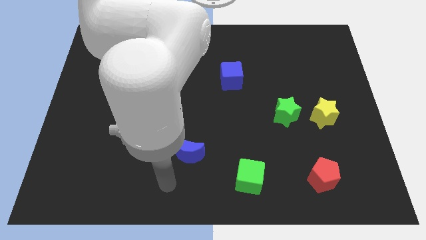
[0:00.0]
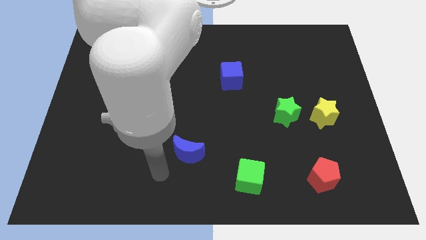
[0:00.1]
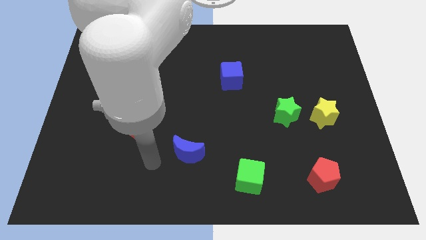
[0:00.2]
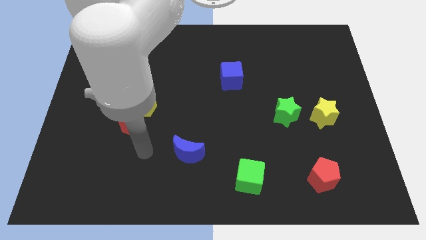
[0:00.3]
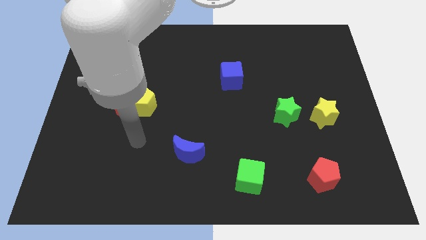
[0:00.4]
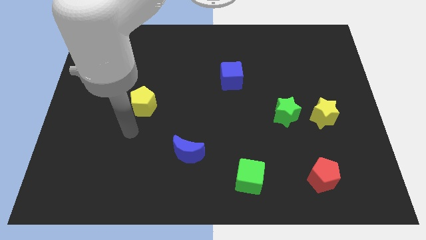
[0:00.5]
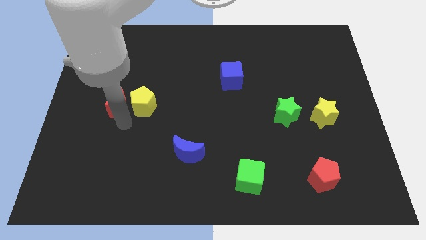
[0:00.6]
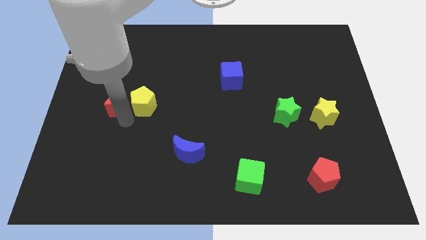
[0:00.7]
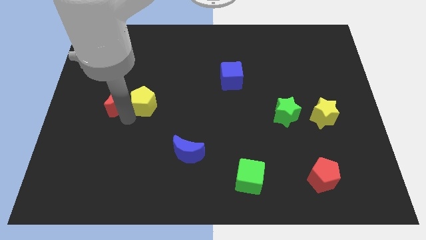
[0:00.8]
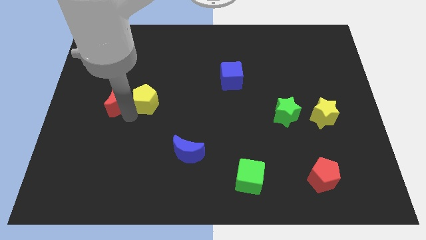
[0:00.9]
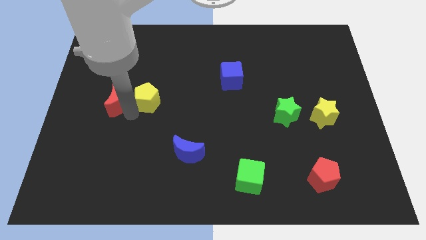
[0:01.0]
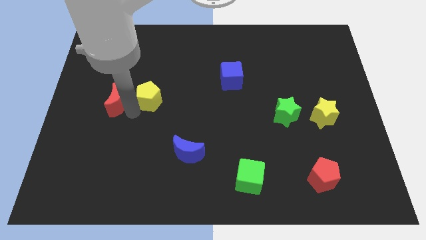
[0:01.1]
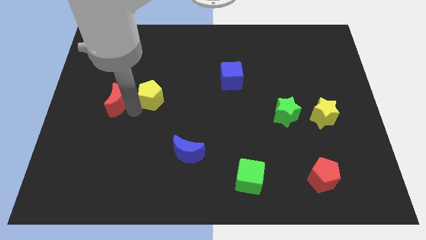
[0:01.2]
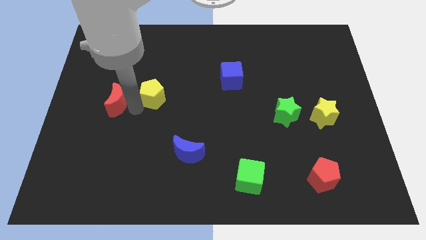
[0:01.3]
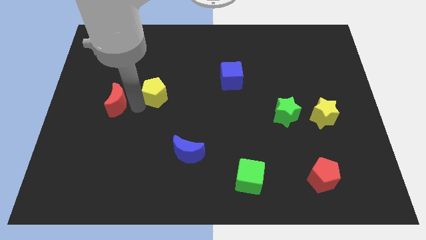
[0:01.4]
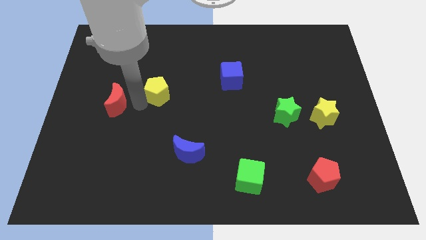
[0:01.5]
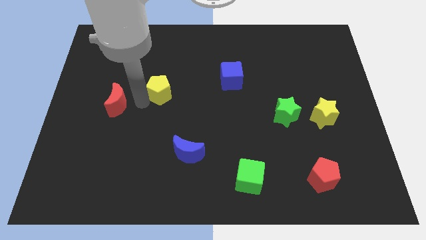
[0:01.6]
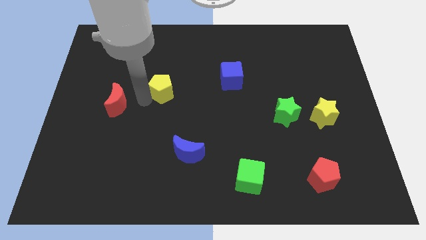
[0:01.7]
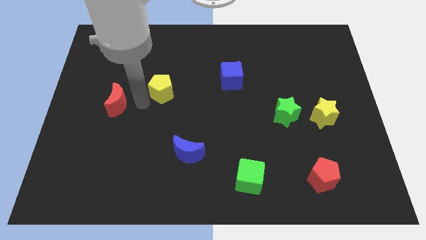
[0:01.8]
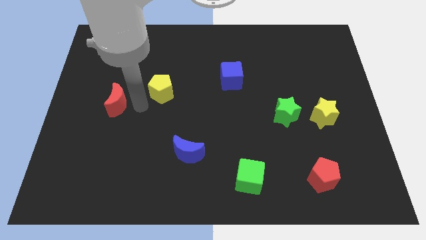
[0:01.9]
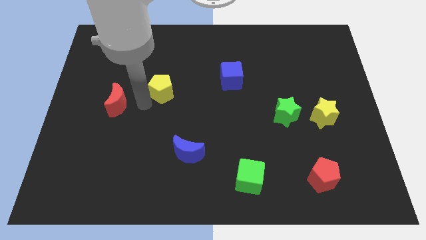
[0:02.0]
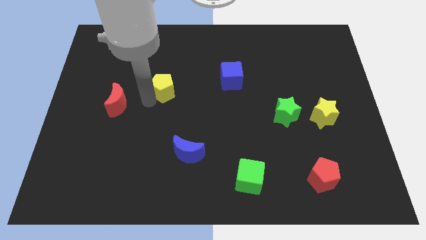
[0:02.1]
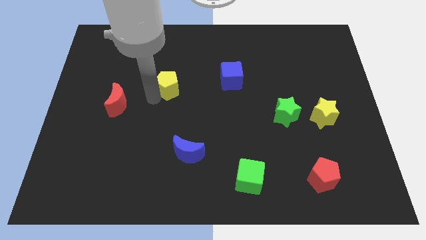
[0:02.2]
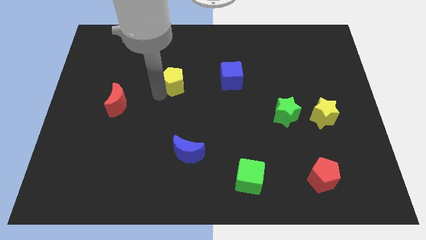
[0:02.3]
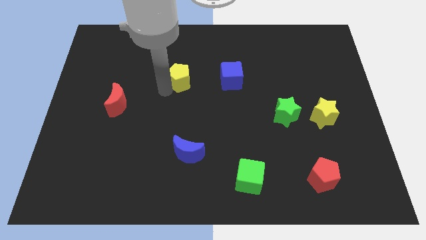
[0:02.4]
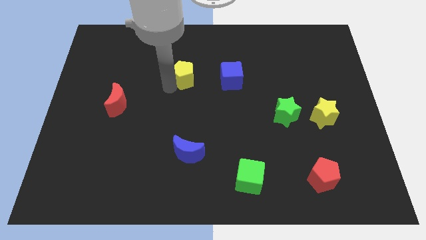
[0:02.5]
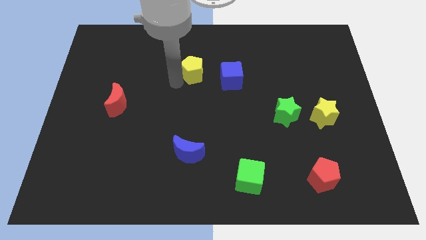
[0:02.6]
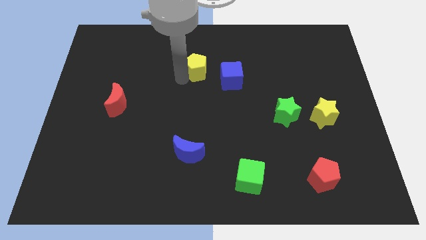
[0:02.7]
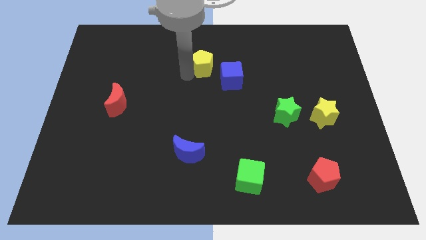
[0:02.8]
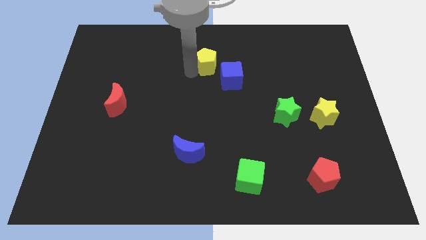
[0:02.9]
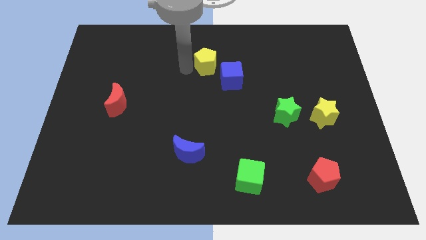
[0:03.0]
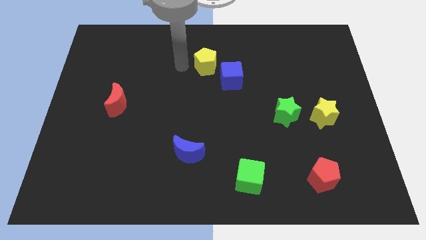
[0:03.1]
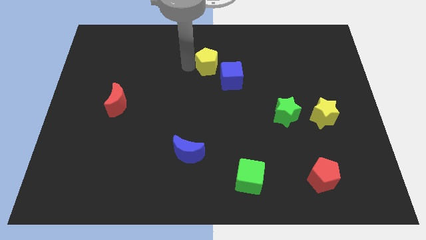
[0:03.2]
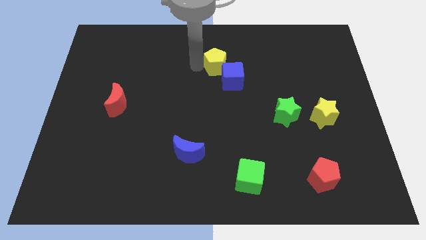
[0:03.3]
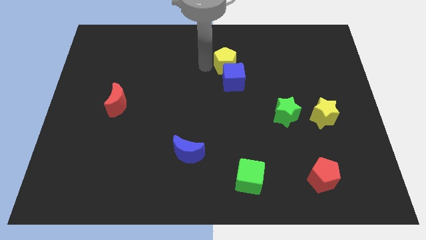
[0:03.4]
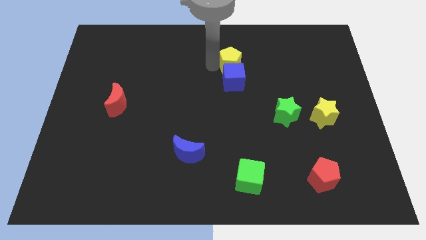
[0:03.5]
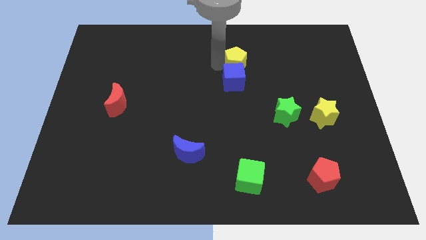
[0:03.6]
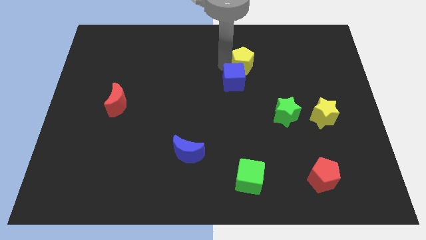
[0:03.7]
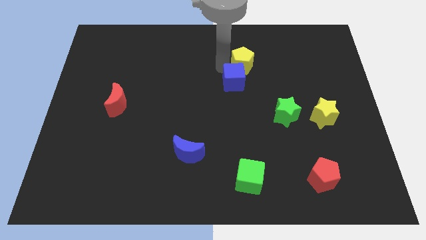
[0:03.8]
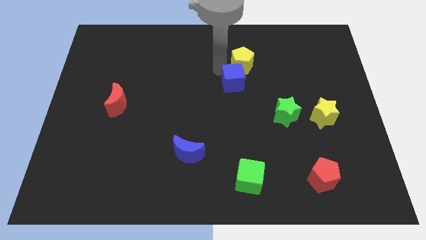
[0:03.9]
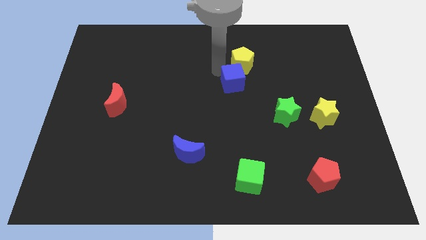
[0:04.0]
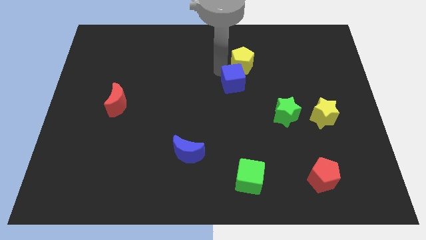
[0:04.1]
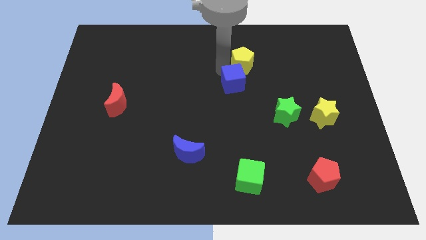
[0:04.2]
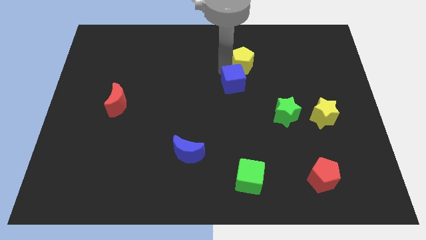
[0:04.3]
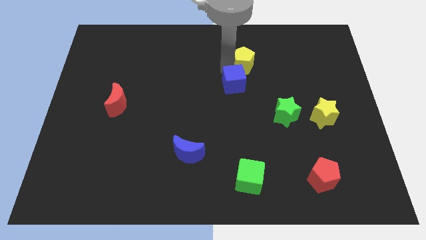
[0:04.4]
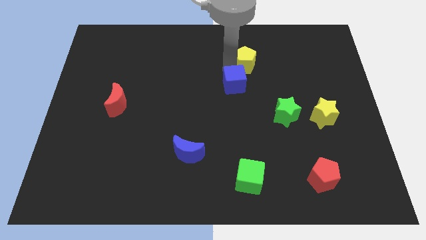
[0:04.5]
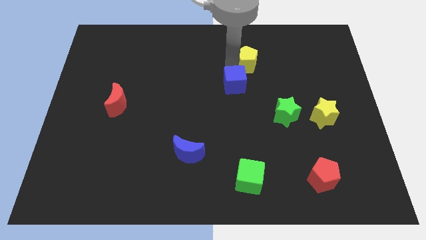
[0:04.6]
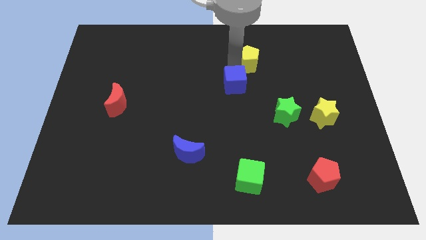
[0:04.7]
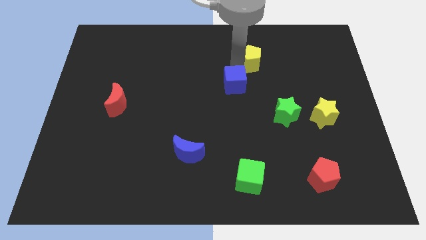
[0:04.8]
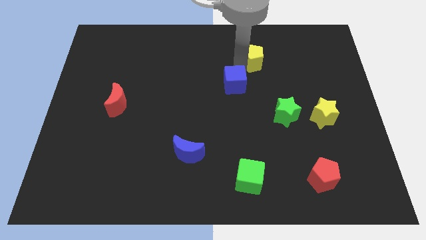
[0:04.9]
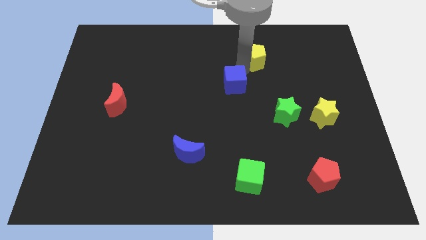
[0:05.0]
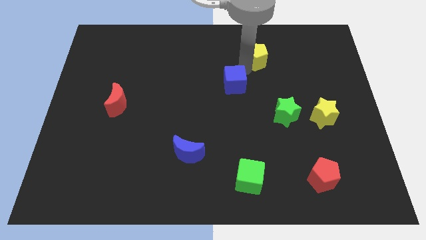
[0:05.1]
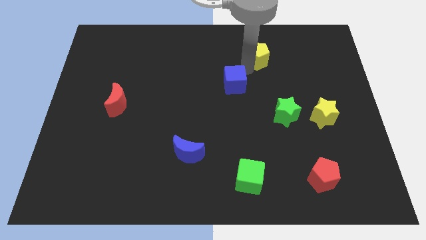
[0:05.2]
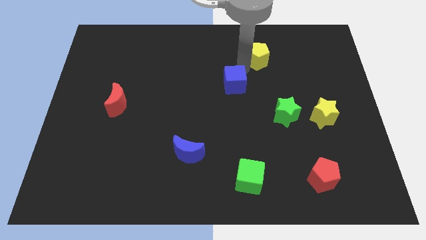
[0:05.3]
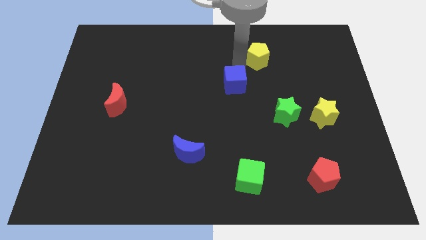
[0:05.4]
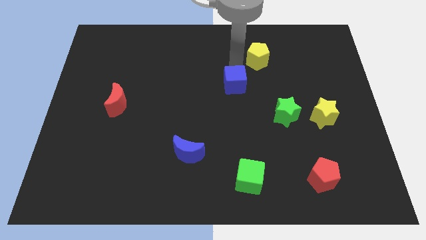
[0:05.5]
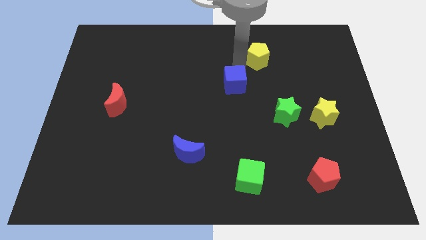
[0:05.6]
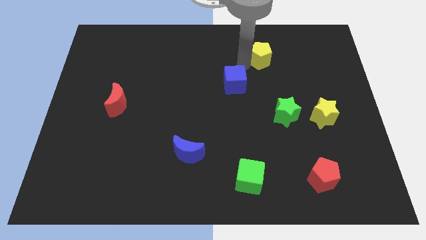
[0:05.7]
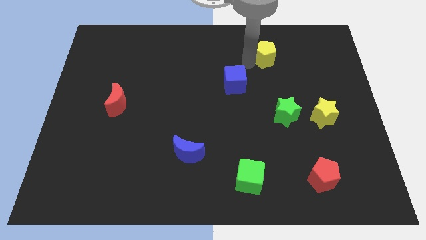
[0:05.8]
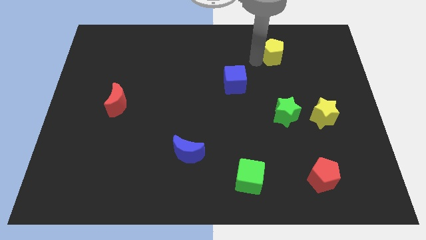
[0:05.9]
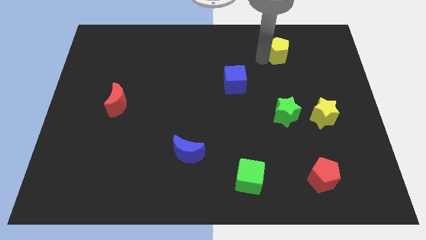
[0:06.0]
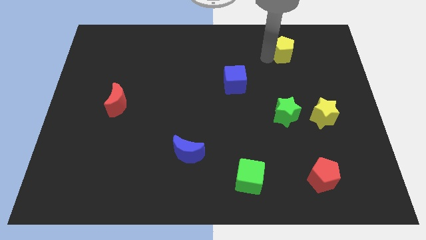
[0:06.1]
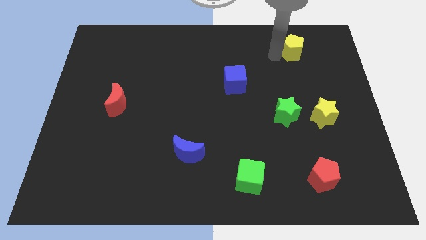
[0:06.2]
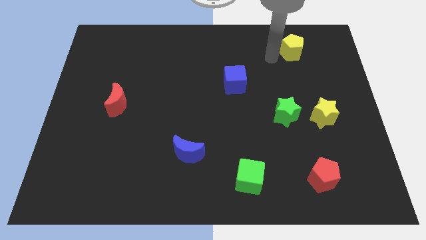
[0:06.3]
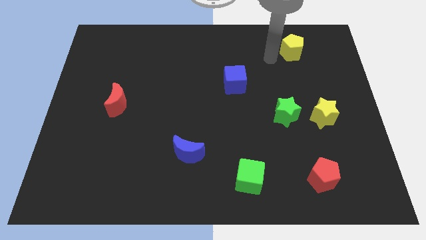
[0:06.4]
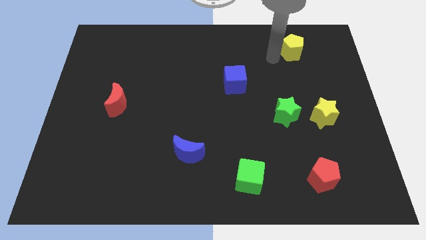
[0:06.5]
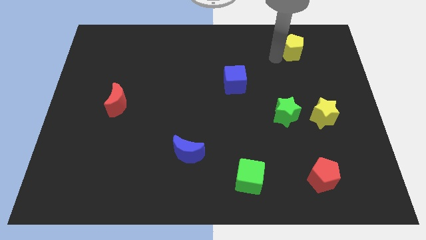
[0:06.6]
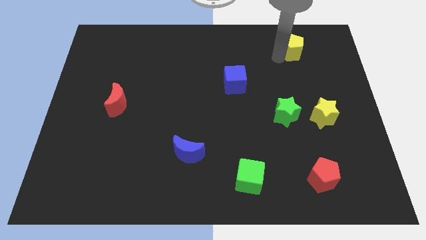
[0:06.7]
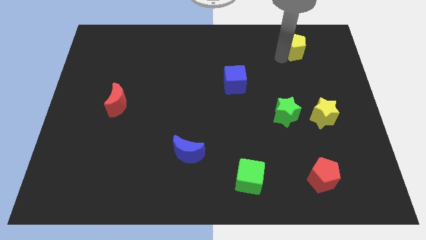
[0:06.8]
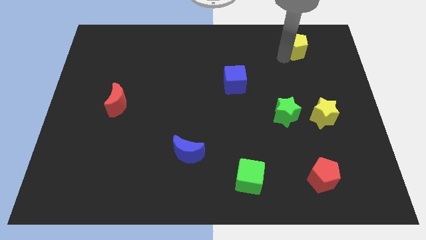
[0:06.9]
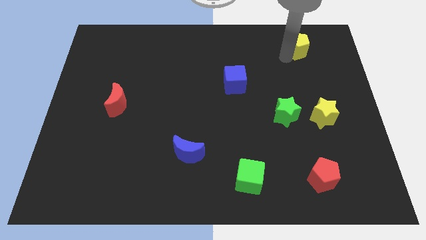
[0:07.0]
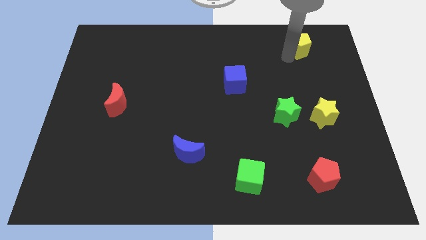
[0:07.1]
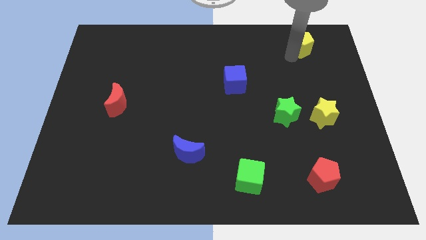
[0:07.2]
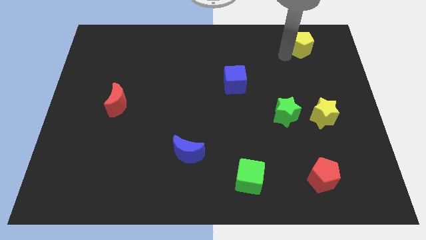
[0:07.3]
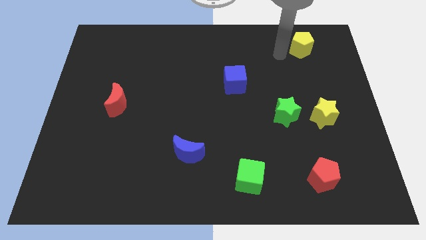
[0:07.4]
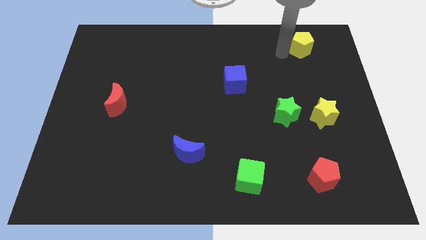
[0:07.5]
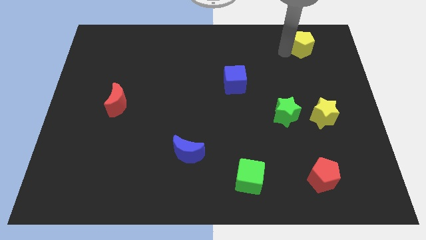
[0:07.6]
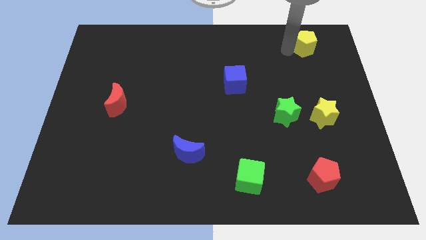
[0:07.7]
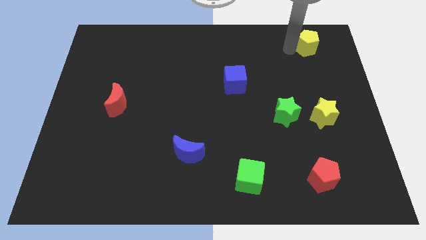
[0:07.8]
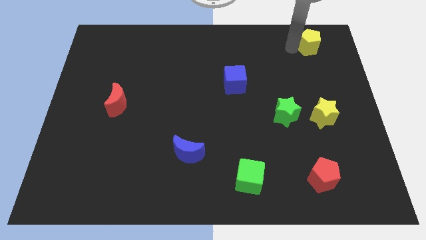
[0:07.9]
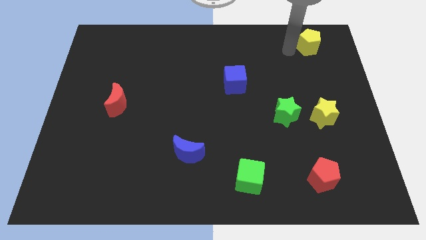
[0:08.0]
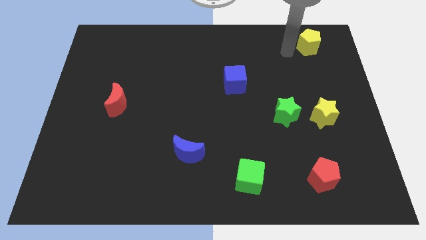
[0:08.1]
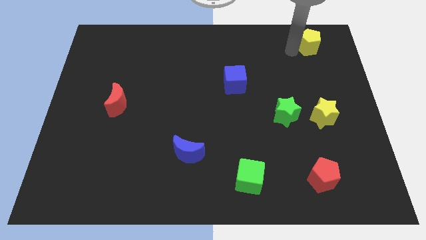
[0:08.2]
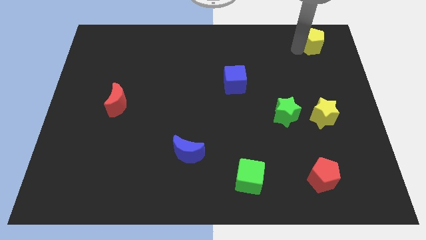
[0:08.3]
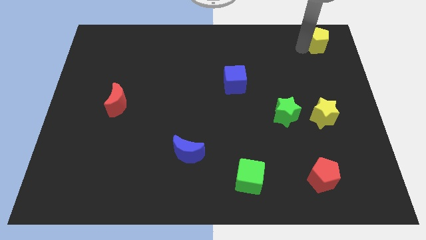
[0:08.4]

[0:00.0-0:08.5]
move the yellow pentagon to the top right corner
